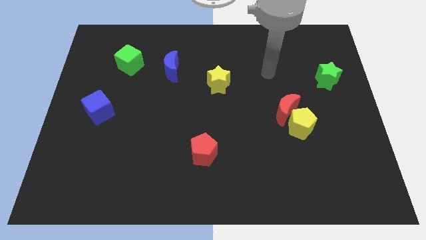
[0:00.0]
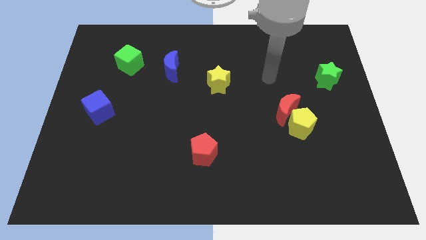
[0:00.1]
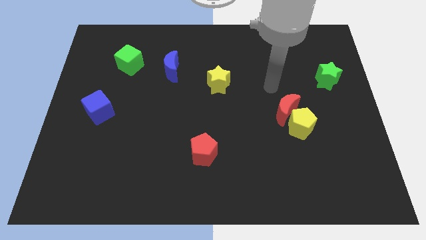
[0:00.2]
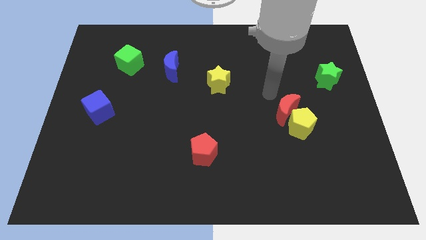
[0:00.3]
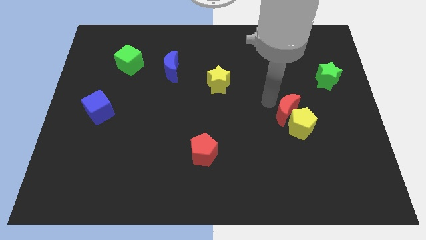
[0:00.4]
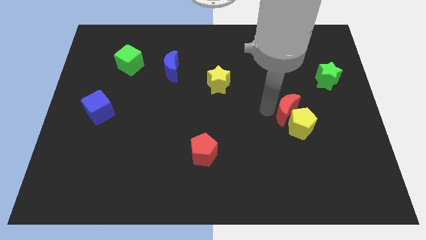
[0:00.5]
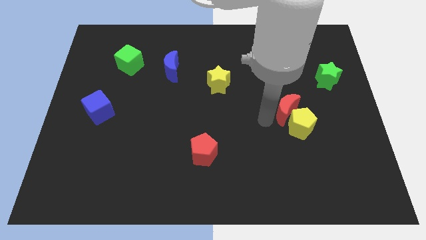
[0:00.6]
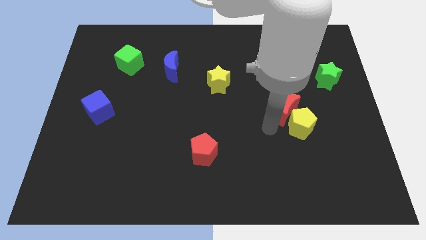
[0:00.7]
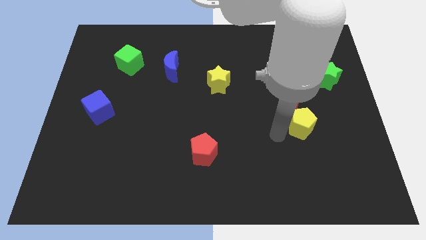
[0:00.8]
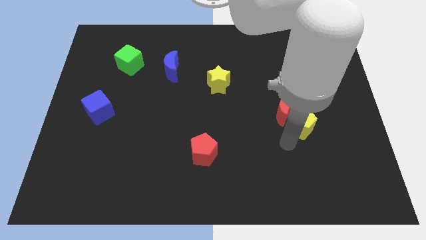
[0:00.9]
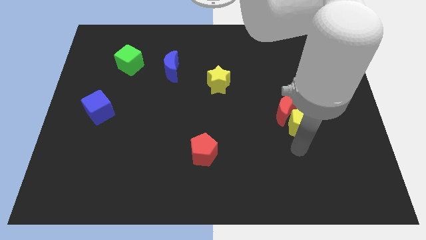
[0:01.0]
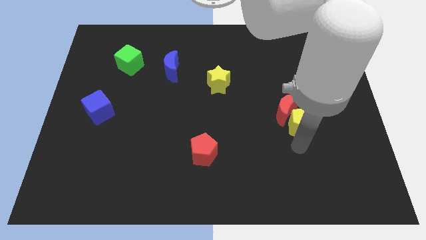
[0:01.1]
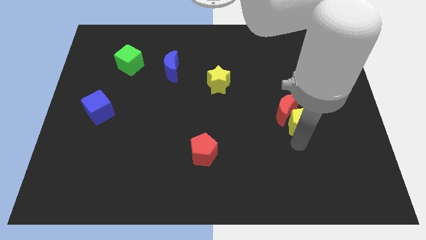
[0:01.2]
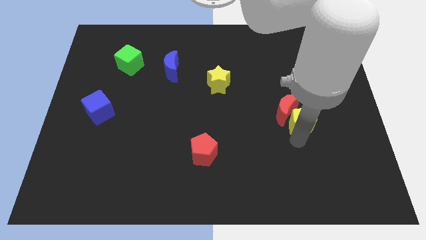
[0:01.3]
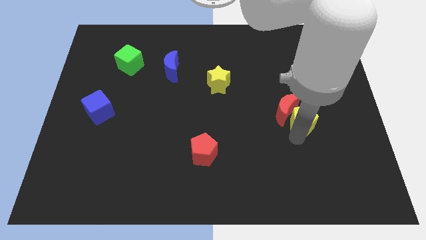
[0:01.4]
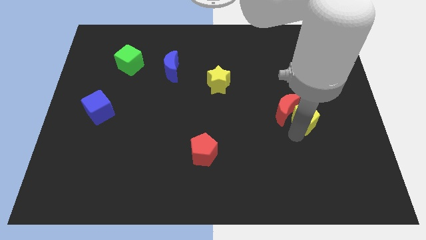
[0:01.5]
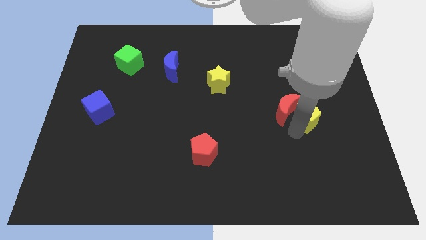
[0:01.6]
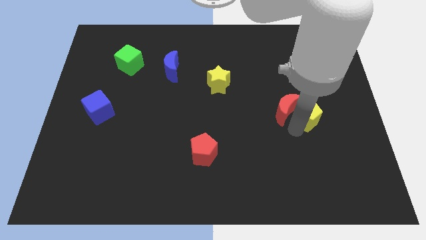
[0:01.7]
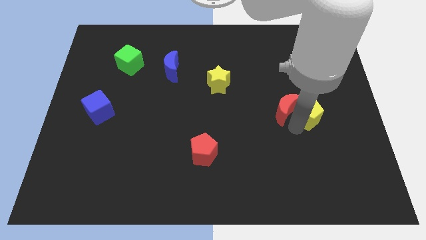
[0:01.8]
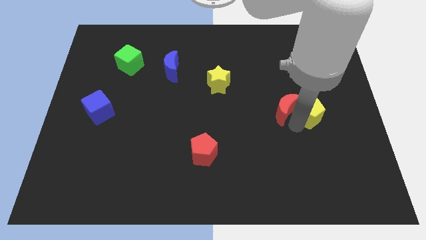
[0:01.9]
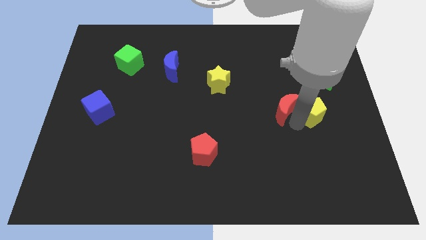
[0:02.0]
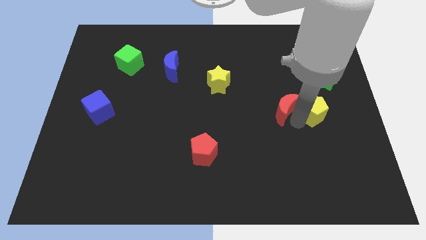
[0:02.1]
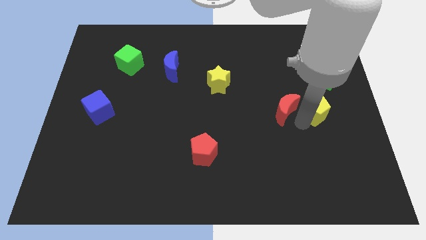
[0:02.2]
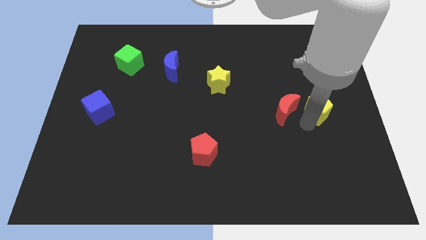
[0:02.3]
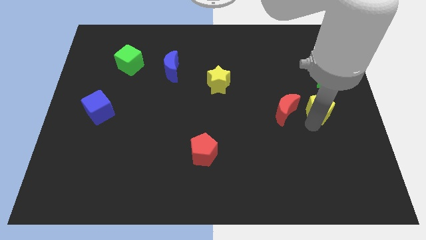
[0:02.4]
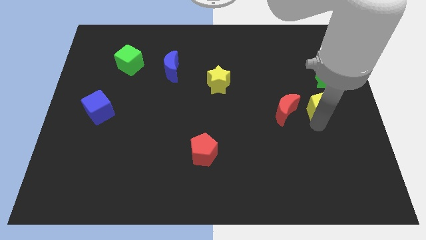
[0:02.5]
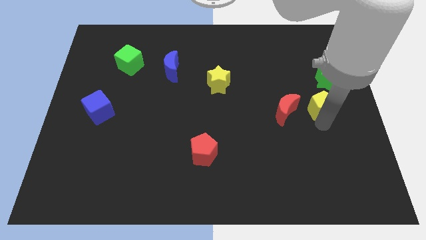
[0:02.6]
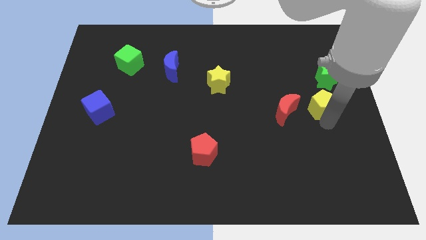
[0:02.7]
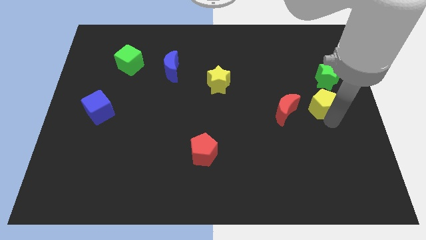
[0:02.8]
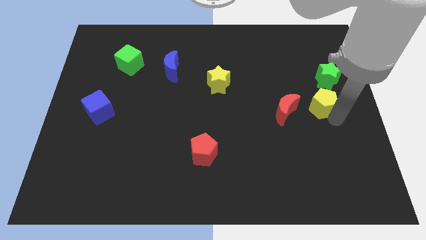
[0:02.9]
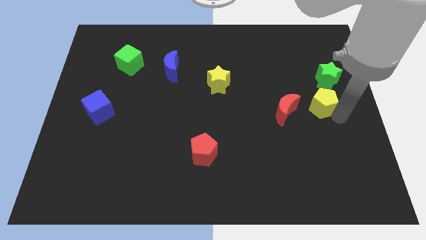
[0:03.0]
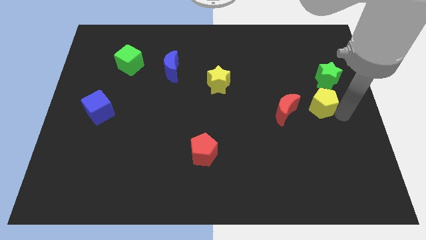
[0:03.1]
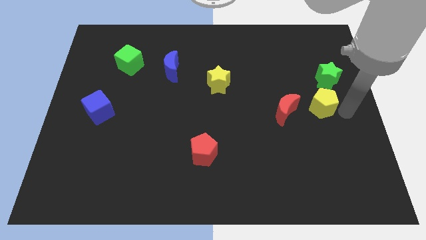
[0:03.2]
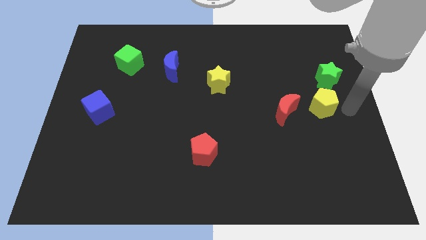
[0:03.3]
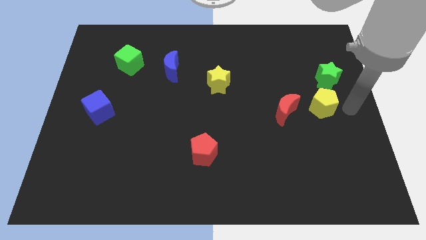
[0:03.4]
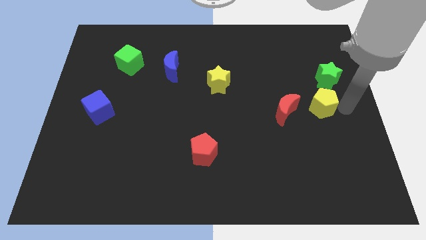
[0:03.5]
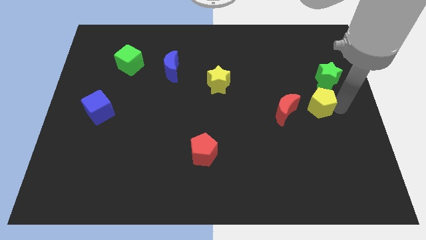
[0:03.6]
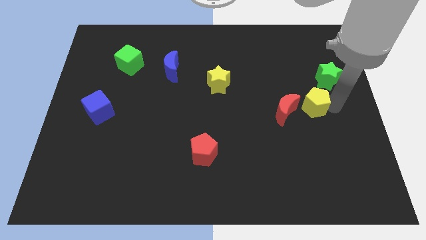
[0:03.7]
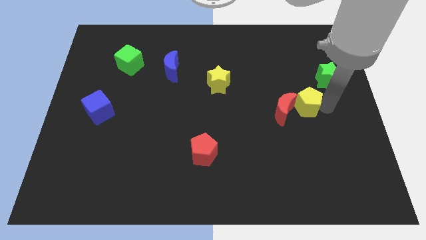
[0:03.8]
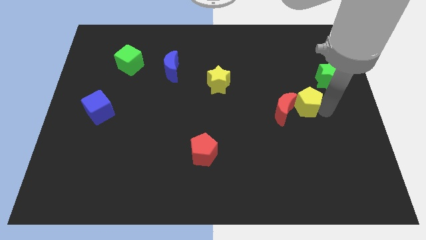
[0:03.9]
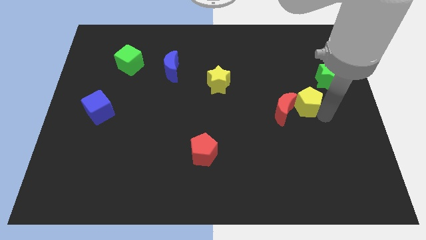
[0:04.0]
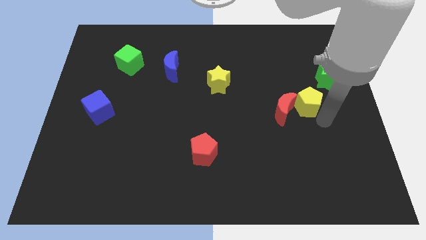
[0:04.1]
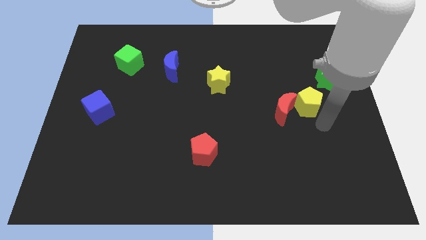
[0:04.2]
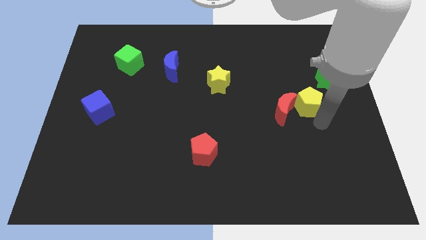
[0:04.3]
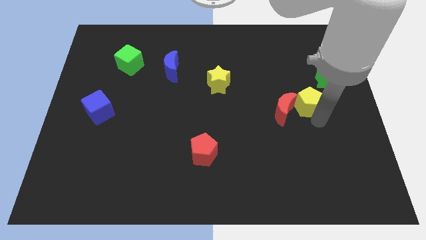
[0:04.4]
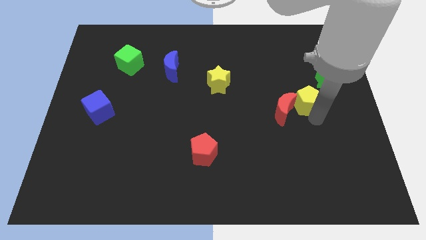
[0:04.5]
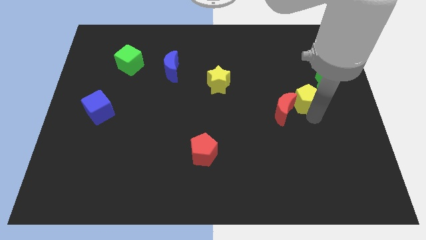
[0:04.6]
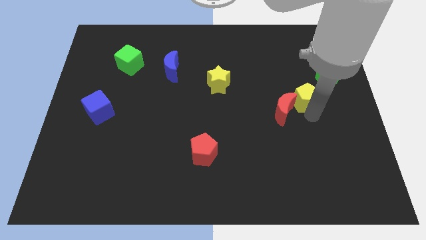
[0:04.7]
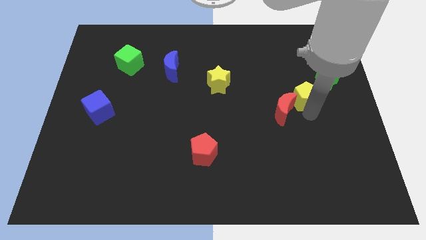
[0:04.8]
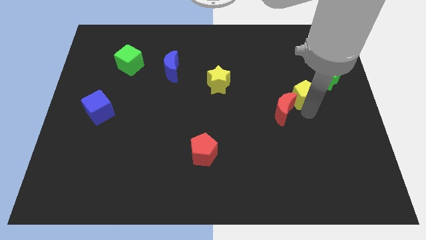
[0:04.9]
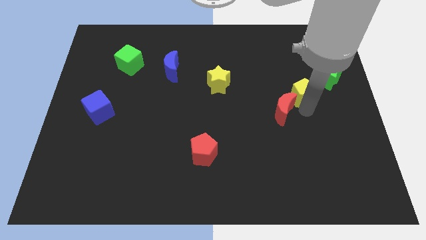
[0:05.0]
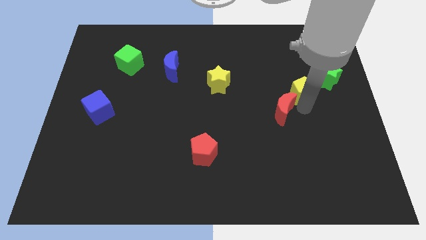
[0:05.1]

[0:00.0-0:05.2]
put the yellow pentagon to the left of the green star

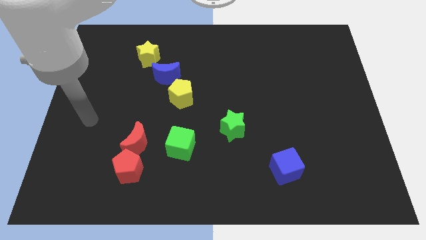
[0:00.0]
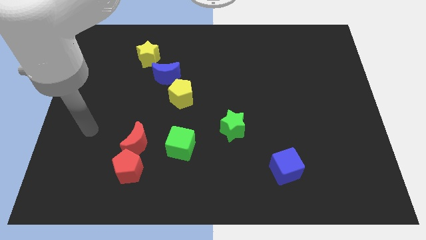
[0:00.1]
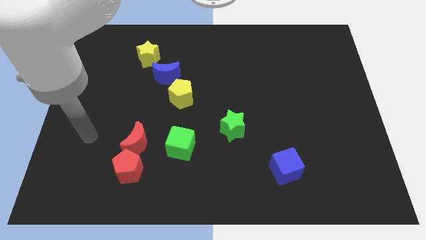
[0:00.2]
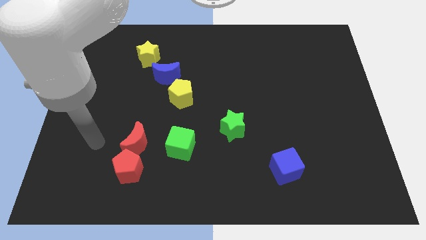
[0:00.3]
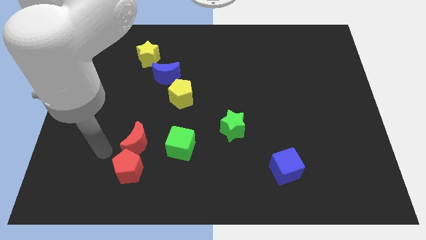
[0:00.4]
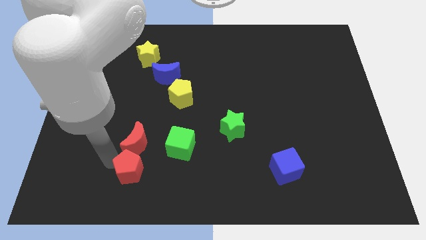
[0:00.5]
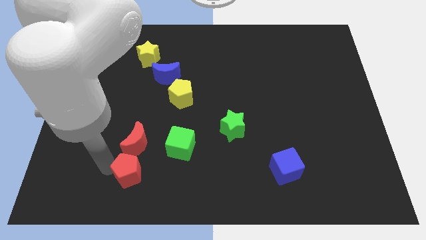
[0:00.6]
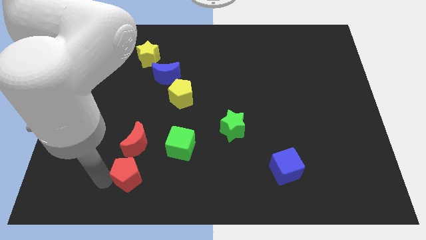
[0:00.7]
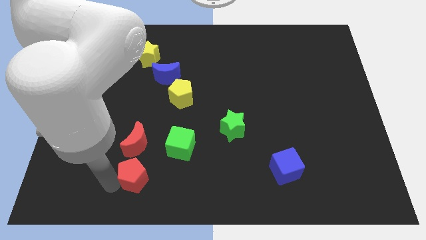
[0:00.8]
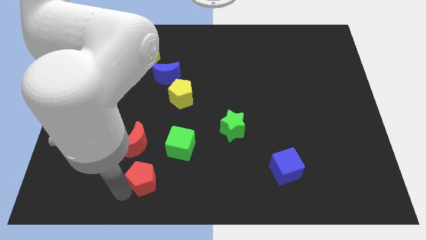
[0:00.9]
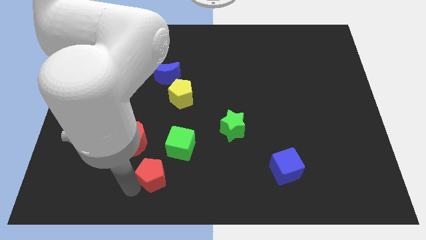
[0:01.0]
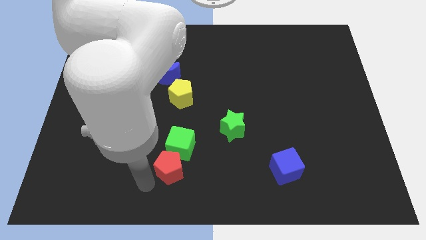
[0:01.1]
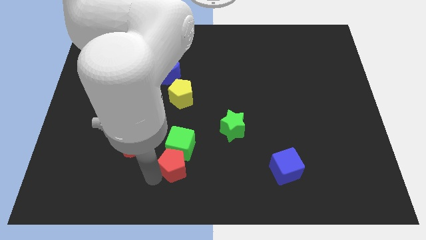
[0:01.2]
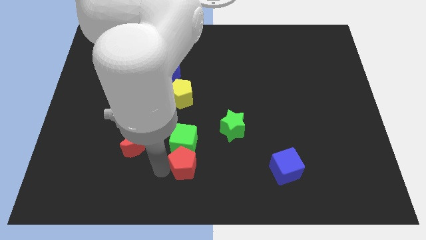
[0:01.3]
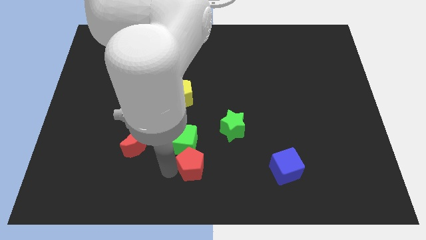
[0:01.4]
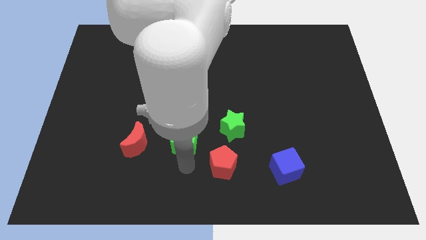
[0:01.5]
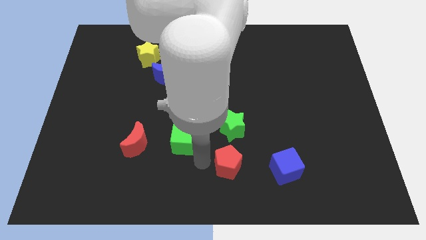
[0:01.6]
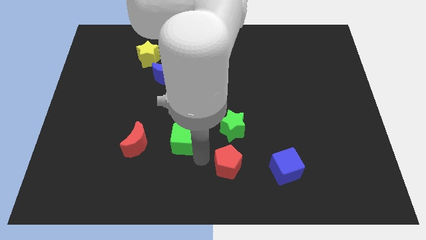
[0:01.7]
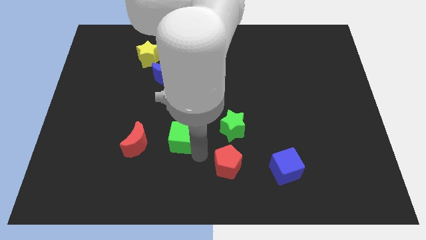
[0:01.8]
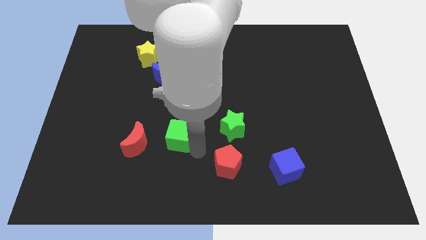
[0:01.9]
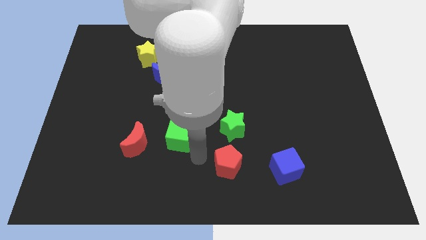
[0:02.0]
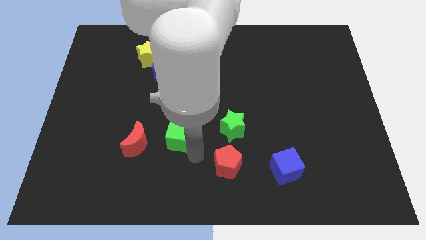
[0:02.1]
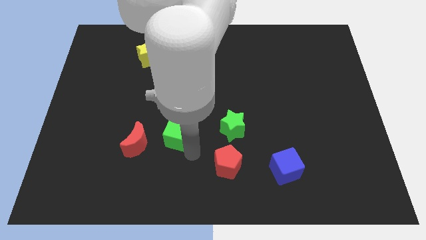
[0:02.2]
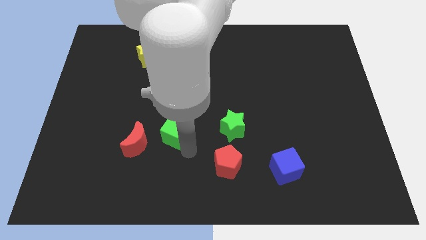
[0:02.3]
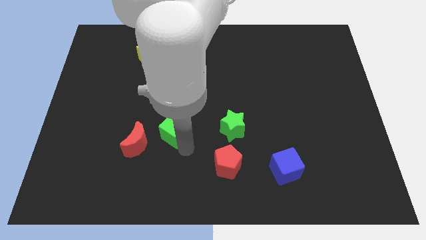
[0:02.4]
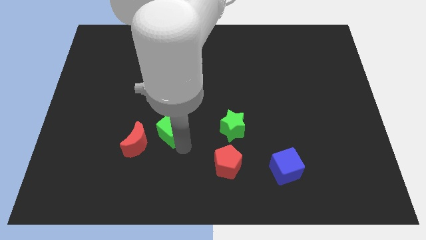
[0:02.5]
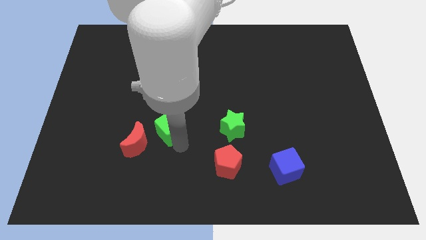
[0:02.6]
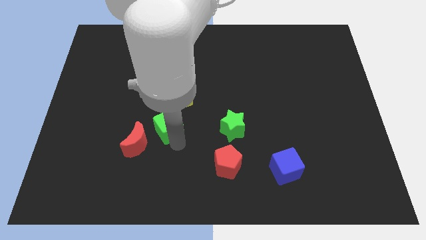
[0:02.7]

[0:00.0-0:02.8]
move the green cube to the bottom left side of the yellow pentagon
